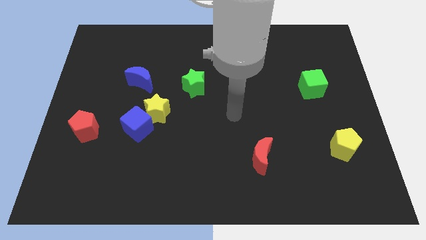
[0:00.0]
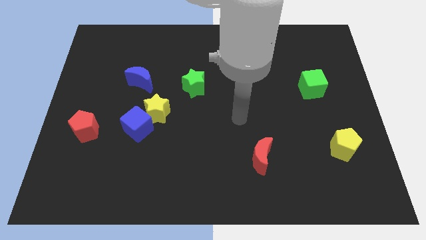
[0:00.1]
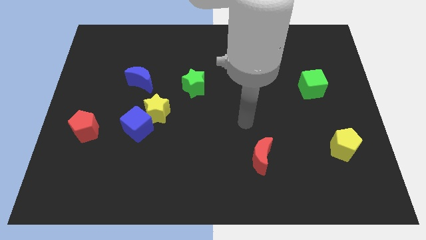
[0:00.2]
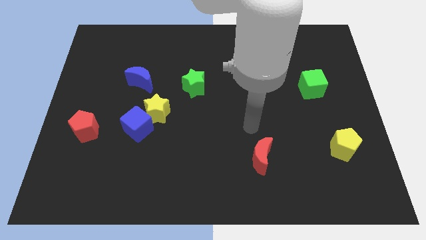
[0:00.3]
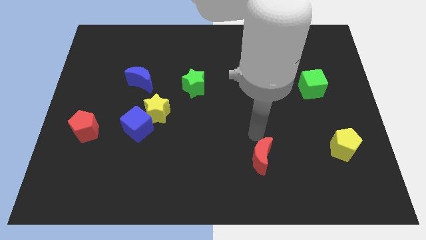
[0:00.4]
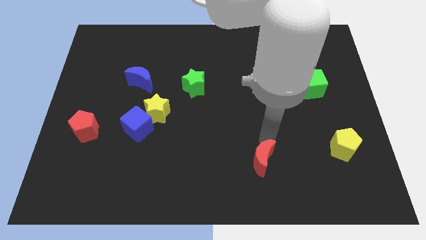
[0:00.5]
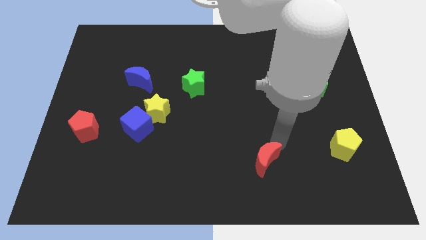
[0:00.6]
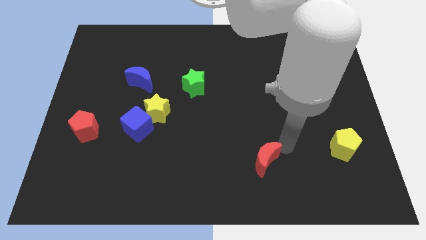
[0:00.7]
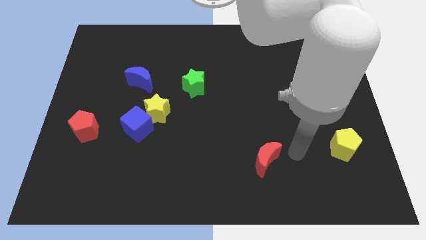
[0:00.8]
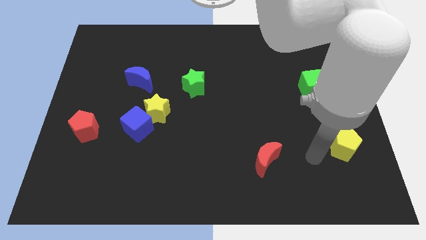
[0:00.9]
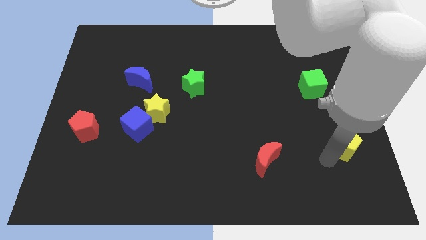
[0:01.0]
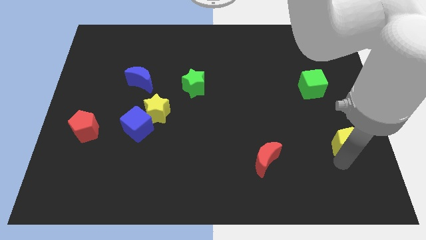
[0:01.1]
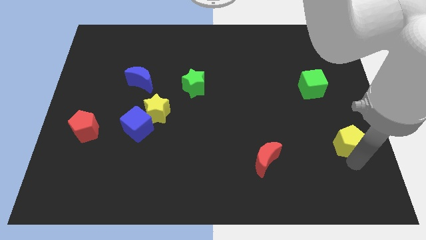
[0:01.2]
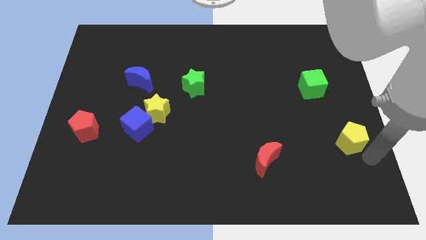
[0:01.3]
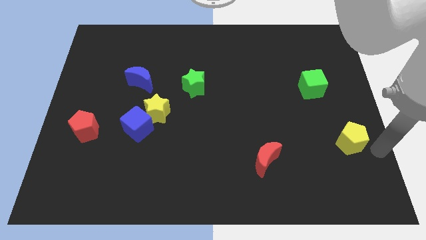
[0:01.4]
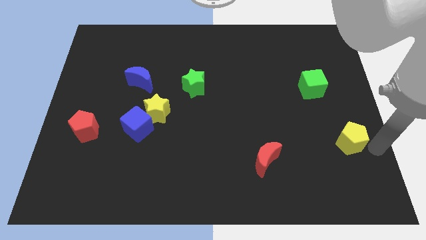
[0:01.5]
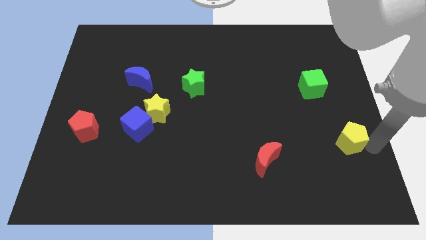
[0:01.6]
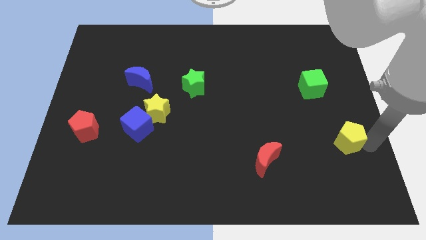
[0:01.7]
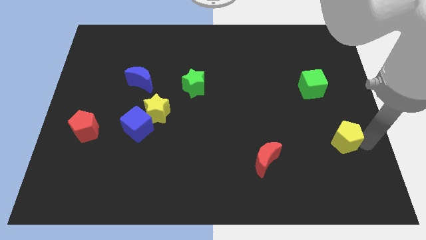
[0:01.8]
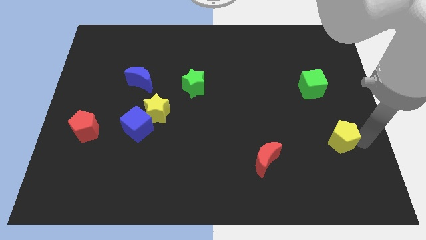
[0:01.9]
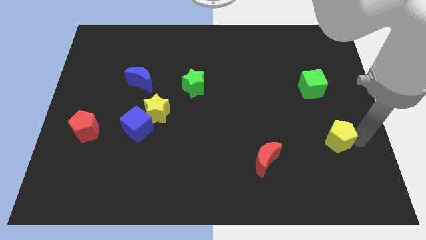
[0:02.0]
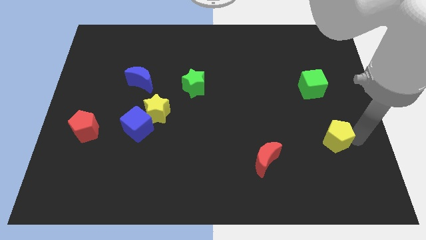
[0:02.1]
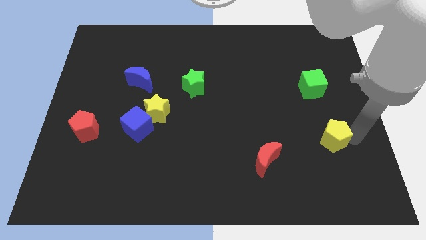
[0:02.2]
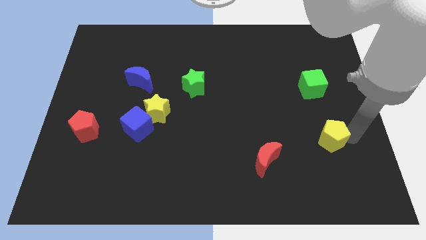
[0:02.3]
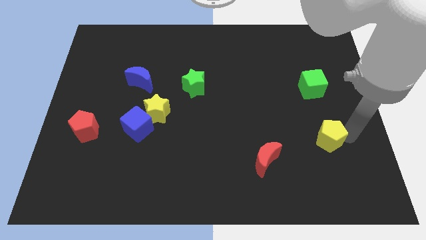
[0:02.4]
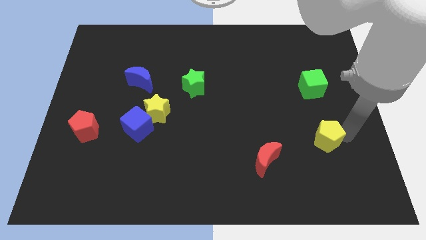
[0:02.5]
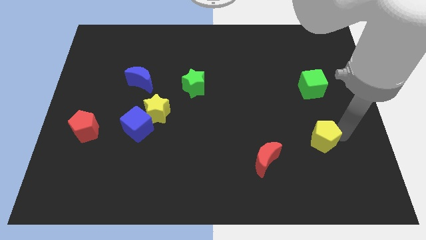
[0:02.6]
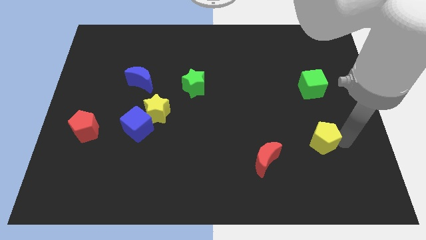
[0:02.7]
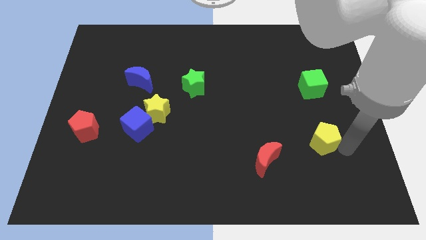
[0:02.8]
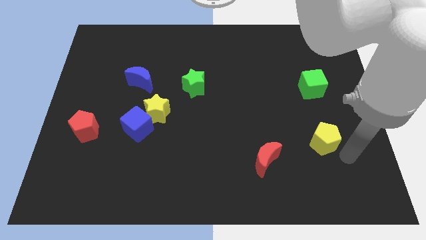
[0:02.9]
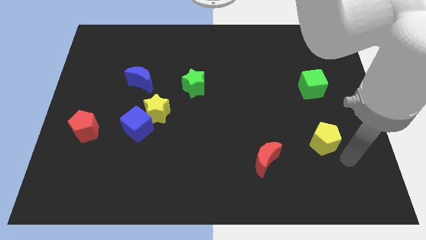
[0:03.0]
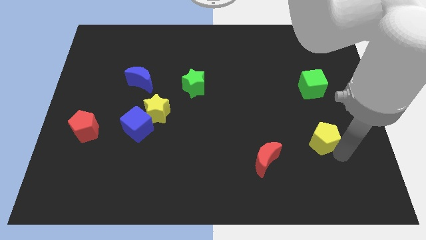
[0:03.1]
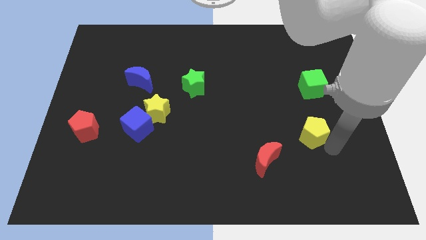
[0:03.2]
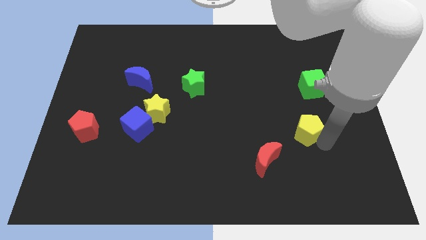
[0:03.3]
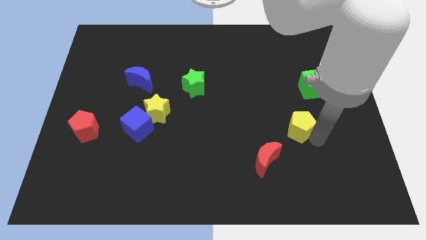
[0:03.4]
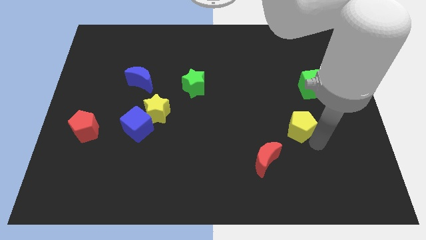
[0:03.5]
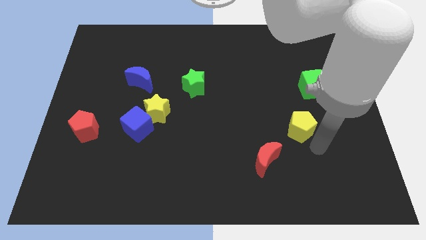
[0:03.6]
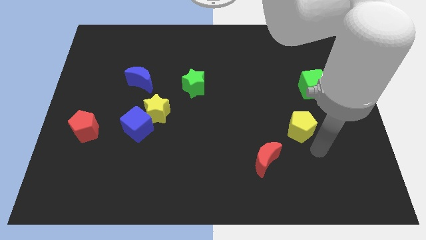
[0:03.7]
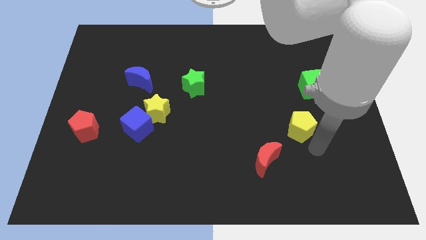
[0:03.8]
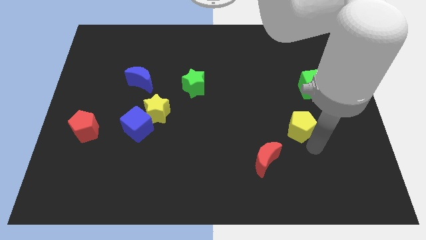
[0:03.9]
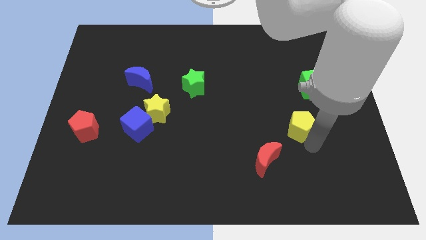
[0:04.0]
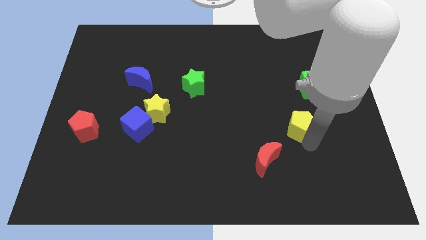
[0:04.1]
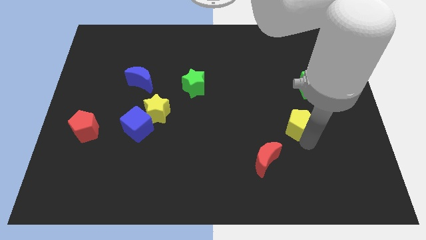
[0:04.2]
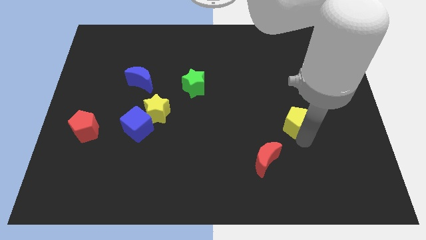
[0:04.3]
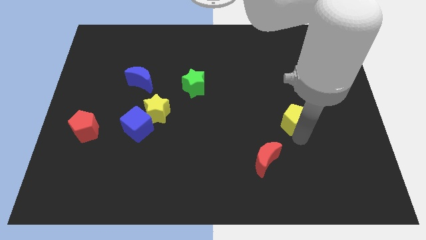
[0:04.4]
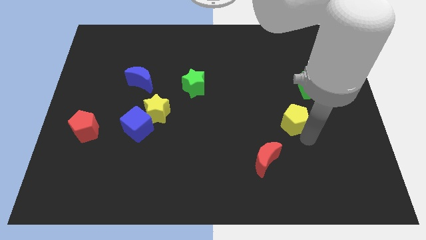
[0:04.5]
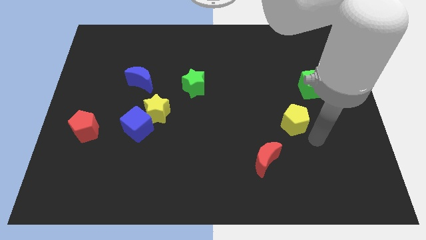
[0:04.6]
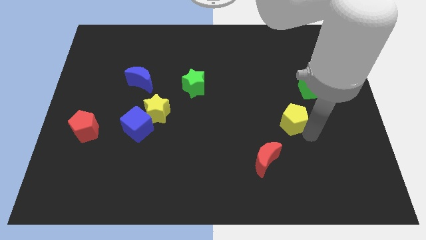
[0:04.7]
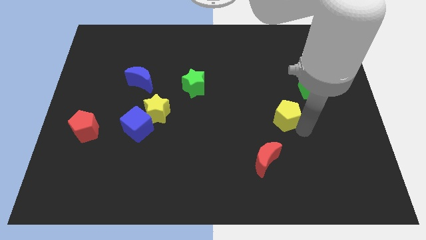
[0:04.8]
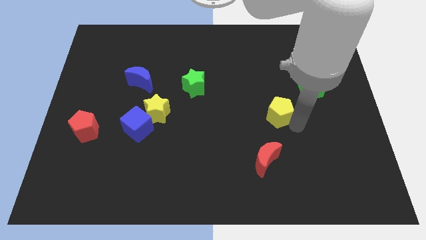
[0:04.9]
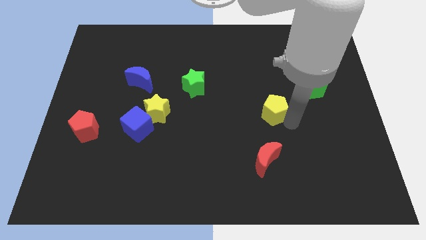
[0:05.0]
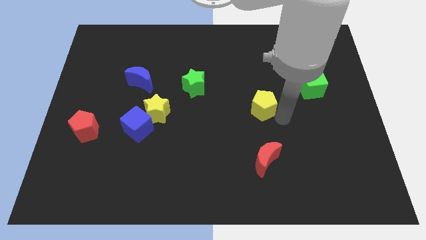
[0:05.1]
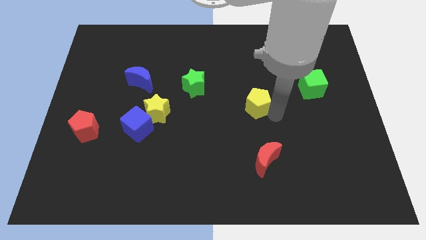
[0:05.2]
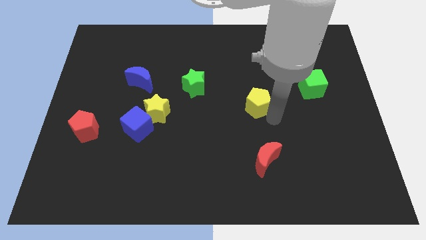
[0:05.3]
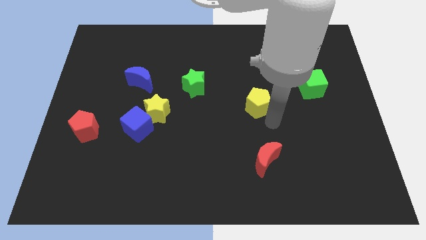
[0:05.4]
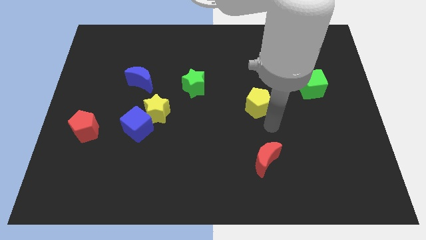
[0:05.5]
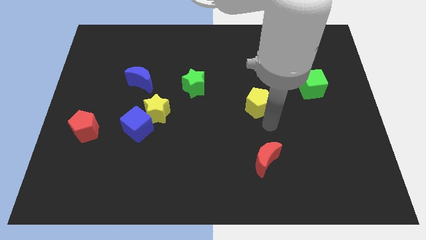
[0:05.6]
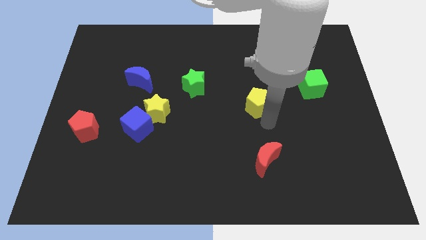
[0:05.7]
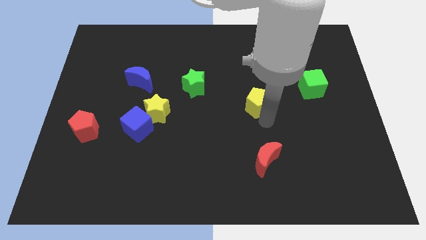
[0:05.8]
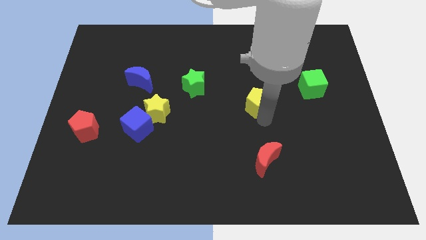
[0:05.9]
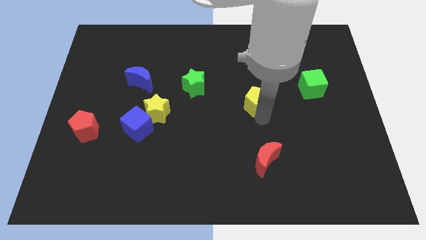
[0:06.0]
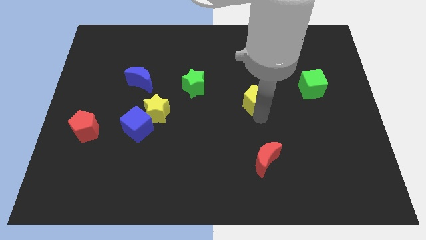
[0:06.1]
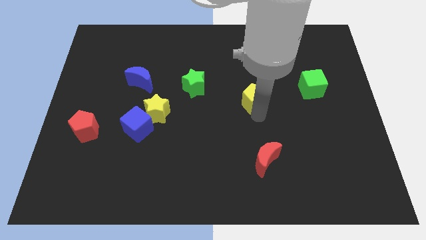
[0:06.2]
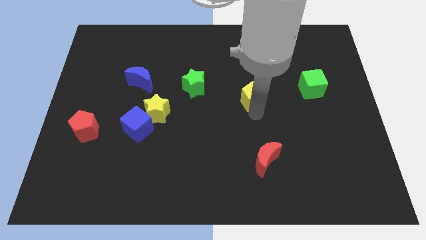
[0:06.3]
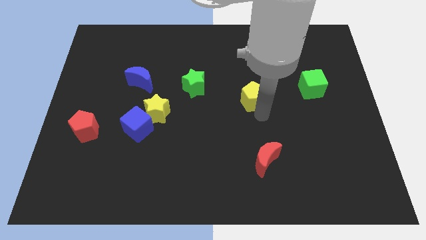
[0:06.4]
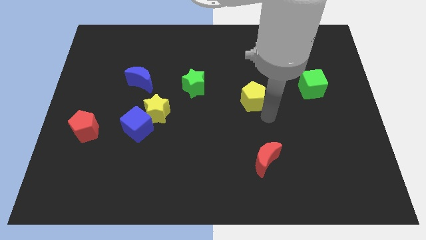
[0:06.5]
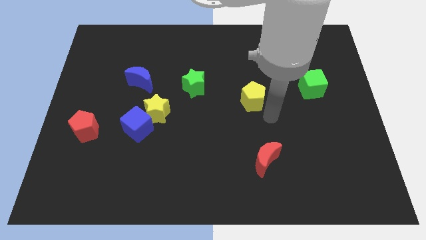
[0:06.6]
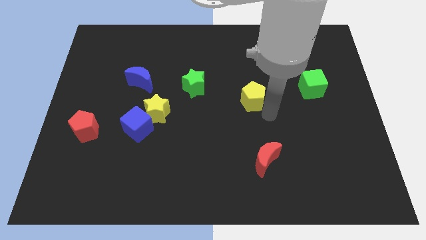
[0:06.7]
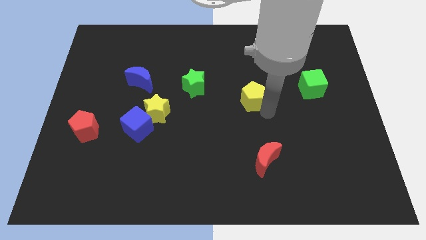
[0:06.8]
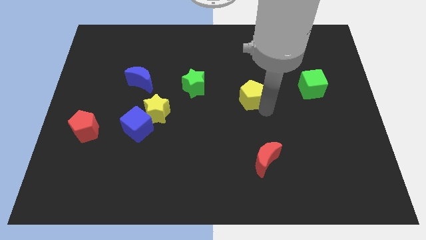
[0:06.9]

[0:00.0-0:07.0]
put the yellow pentagon to the right of the green star

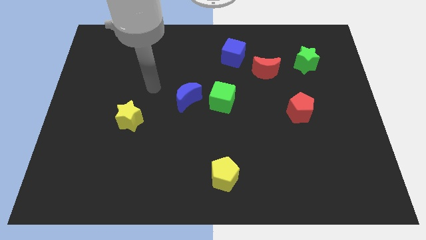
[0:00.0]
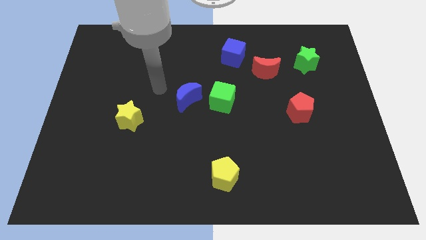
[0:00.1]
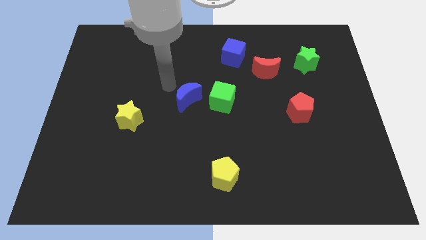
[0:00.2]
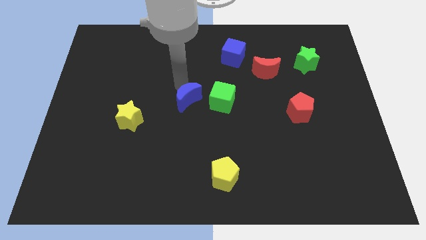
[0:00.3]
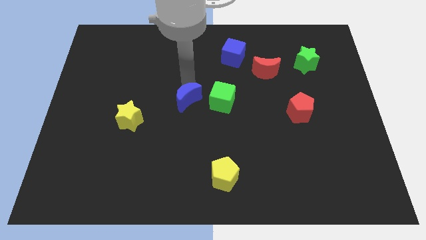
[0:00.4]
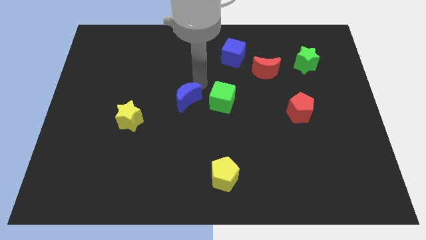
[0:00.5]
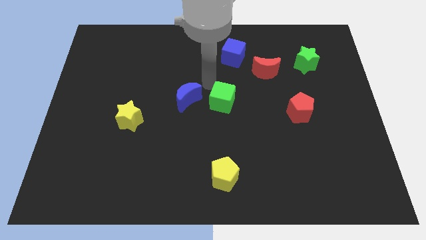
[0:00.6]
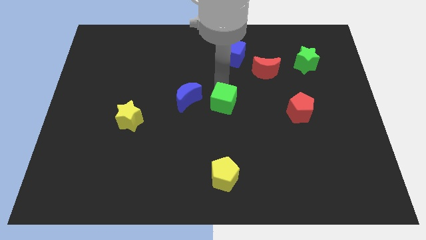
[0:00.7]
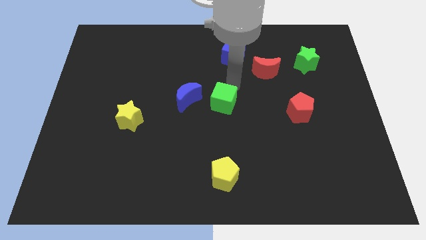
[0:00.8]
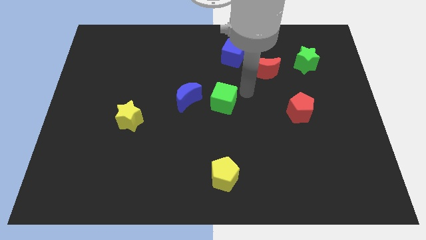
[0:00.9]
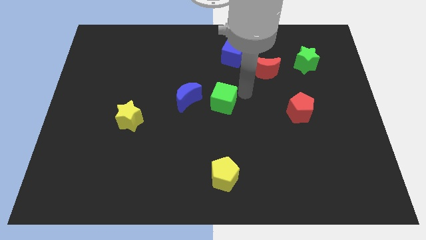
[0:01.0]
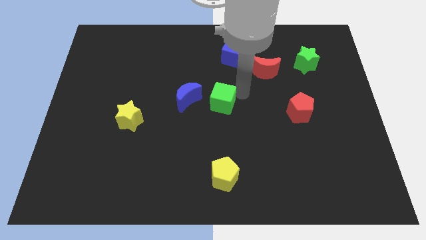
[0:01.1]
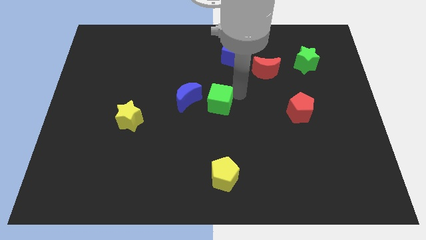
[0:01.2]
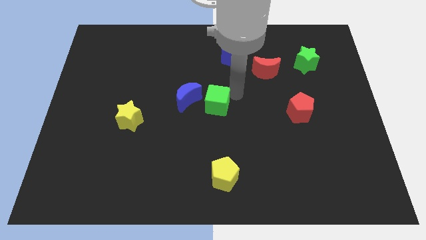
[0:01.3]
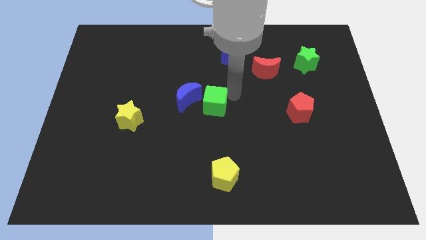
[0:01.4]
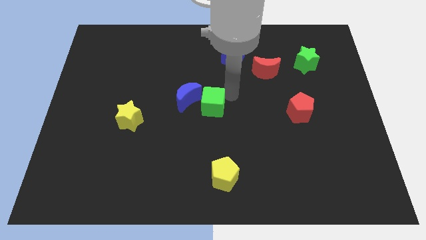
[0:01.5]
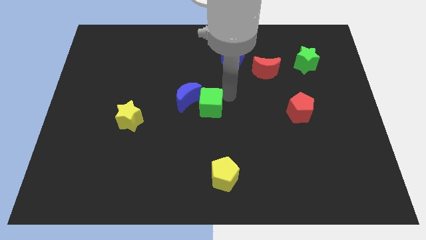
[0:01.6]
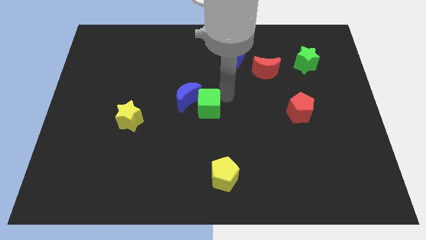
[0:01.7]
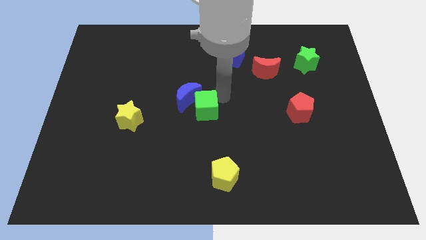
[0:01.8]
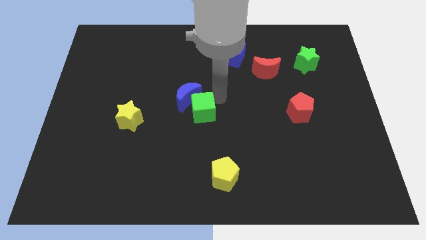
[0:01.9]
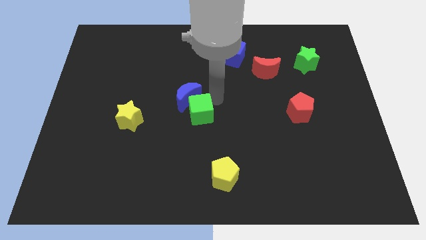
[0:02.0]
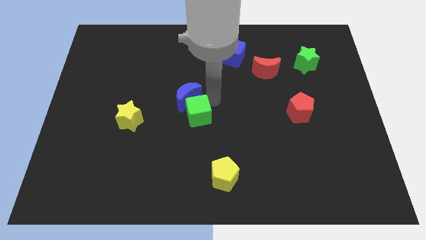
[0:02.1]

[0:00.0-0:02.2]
put the green cube right of the yellow star
